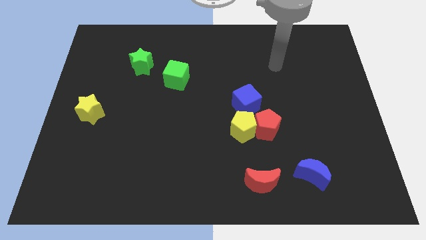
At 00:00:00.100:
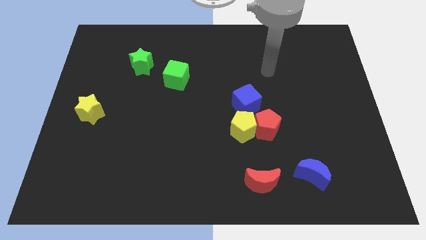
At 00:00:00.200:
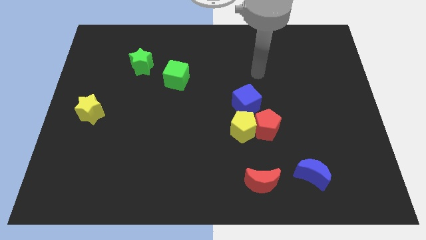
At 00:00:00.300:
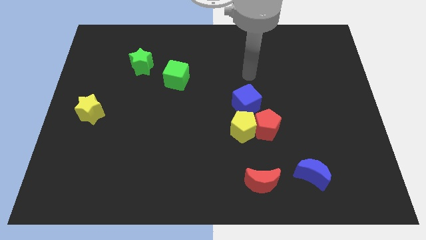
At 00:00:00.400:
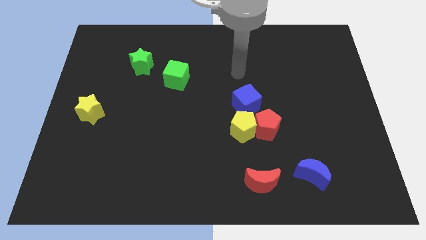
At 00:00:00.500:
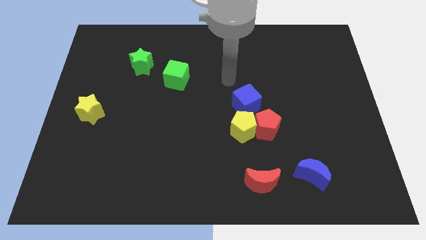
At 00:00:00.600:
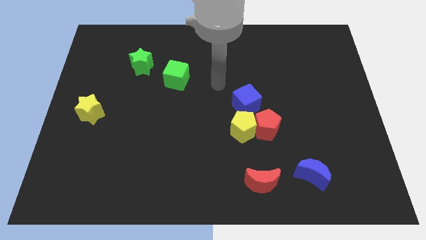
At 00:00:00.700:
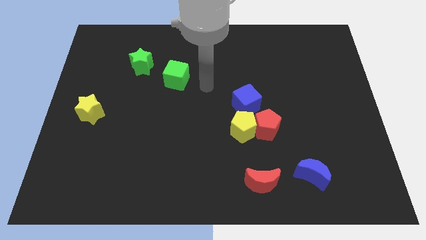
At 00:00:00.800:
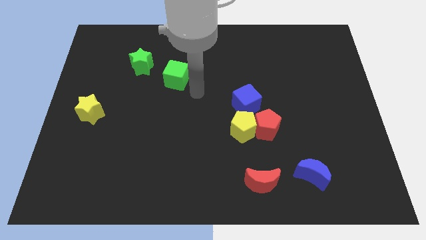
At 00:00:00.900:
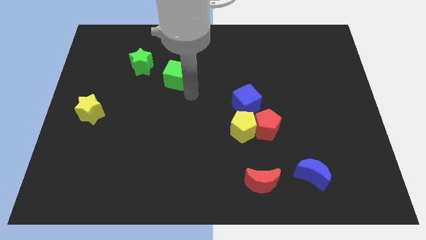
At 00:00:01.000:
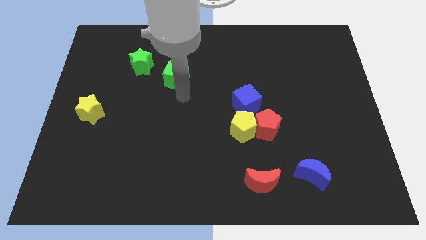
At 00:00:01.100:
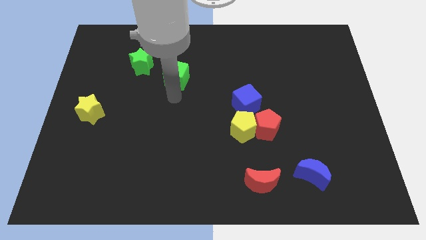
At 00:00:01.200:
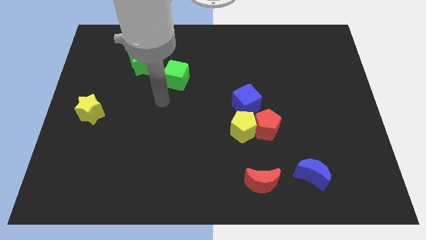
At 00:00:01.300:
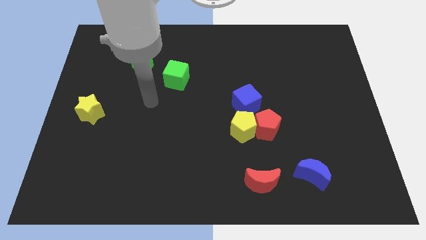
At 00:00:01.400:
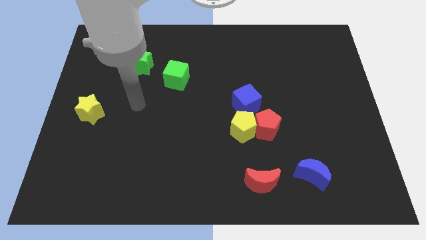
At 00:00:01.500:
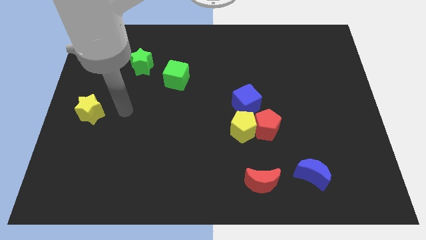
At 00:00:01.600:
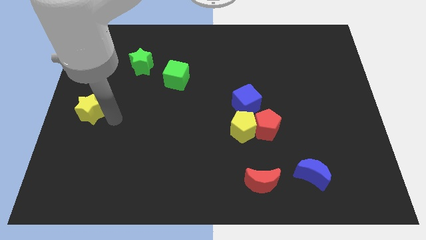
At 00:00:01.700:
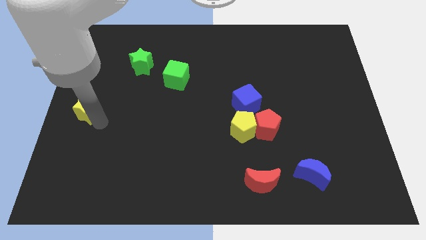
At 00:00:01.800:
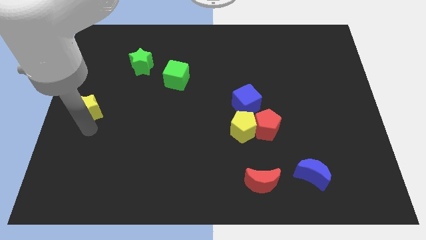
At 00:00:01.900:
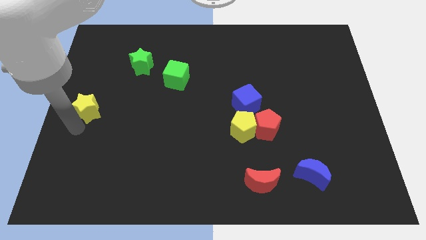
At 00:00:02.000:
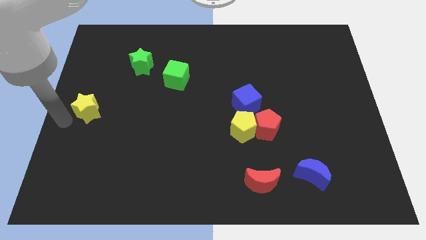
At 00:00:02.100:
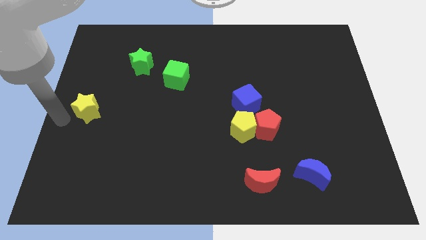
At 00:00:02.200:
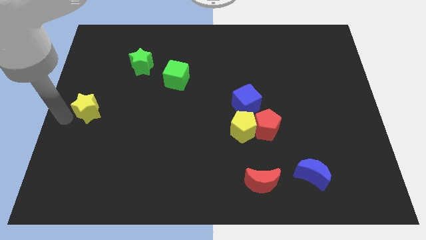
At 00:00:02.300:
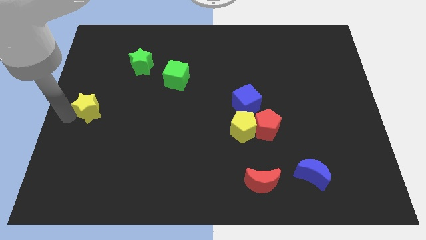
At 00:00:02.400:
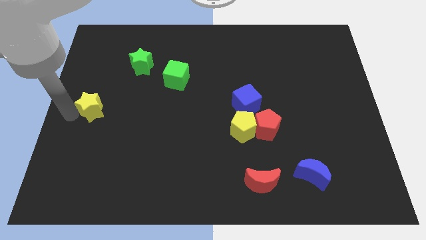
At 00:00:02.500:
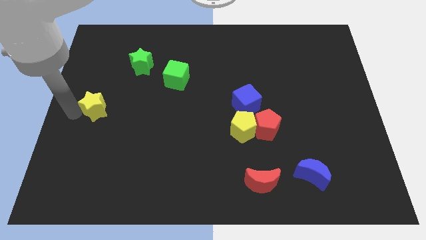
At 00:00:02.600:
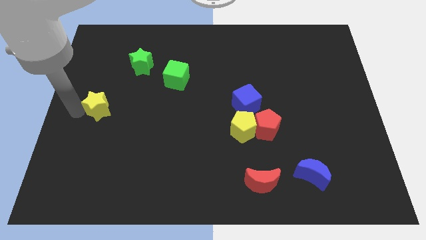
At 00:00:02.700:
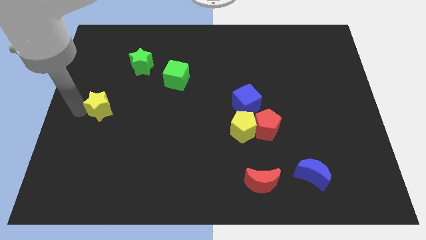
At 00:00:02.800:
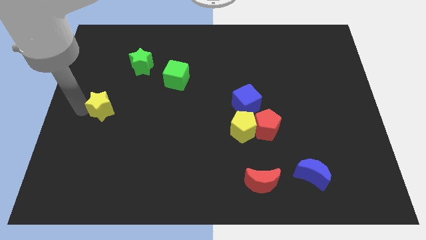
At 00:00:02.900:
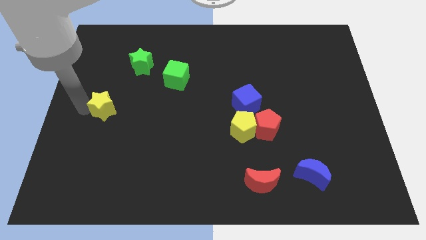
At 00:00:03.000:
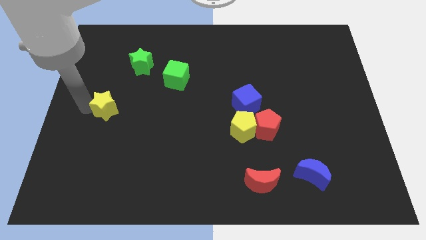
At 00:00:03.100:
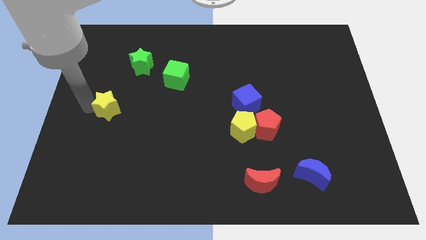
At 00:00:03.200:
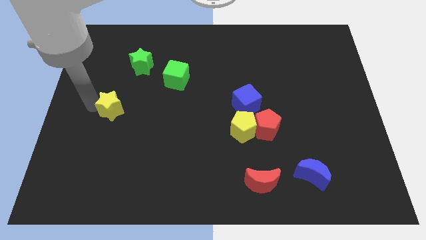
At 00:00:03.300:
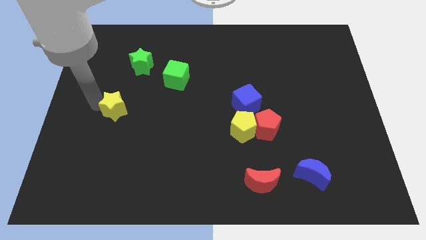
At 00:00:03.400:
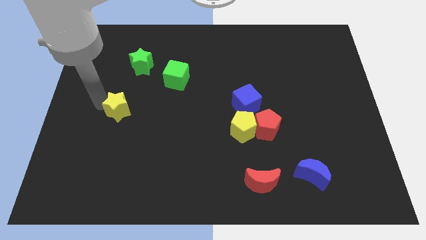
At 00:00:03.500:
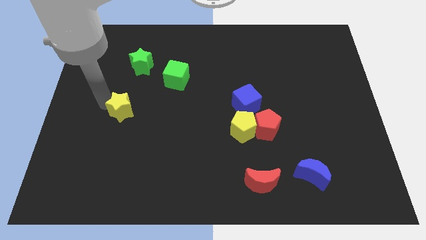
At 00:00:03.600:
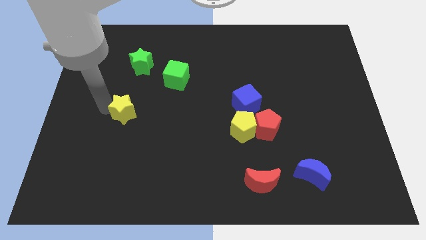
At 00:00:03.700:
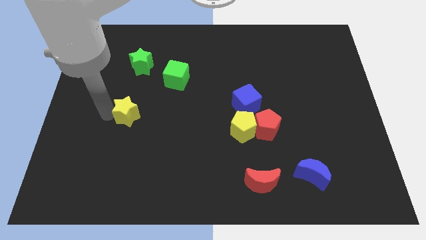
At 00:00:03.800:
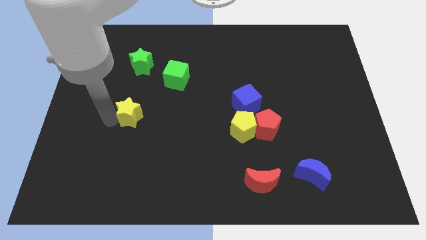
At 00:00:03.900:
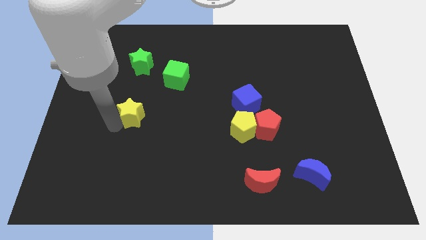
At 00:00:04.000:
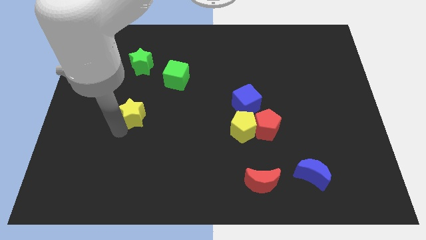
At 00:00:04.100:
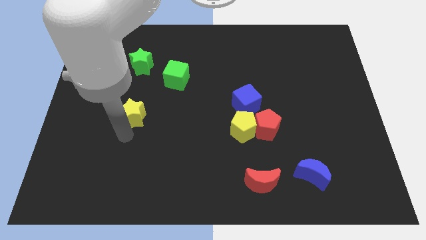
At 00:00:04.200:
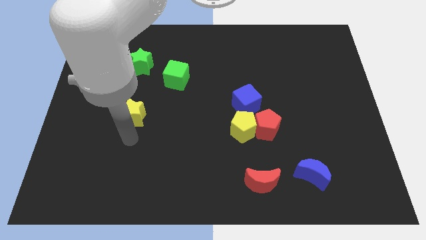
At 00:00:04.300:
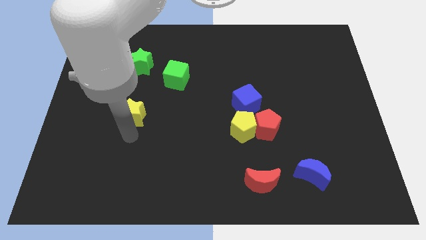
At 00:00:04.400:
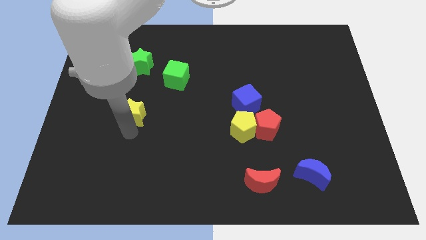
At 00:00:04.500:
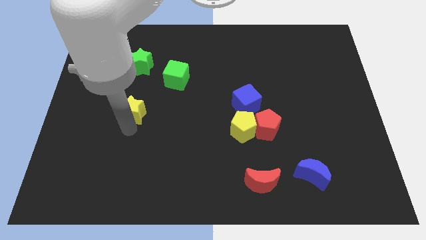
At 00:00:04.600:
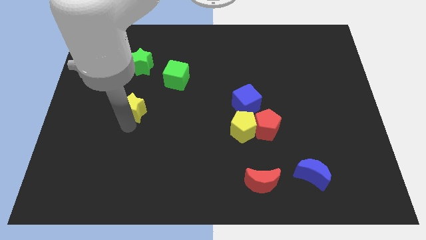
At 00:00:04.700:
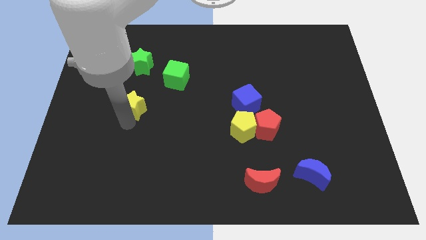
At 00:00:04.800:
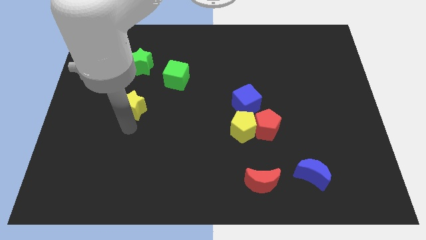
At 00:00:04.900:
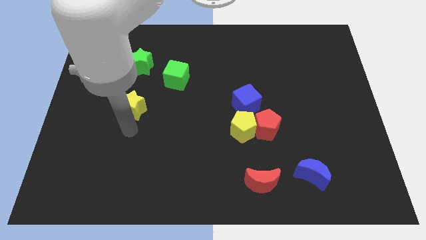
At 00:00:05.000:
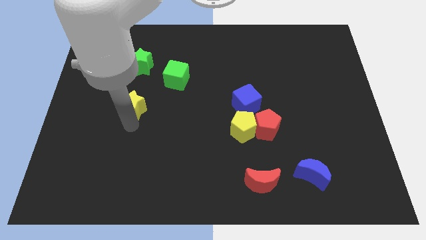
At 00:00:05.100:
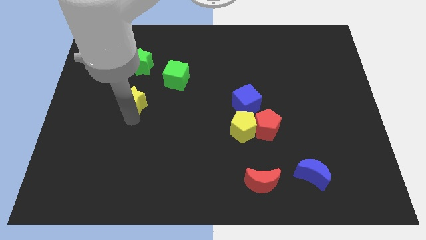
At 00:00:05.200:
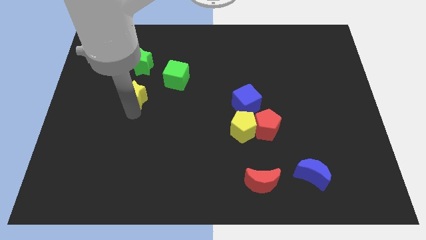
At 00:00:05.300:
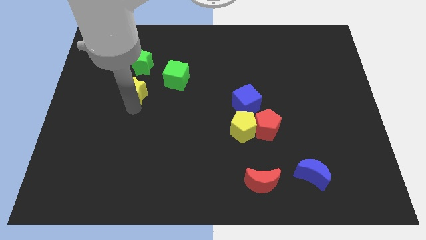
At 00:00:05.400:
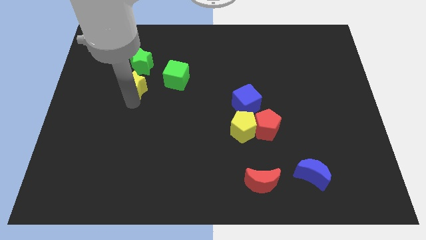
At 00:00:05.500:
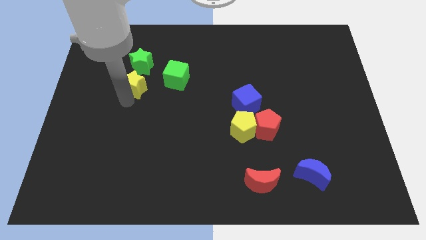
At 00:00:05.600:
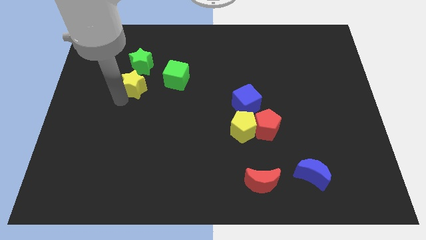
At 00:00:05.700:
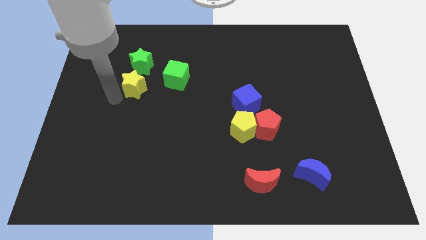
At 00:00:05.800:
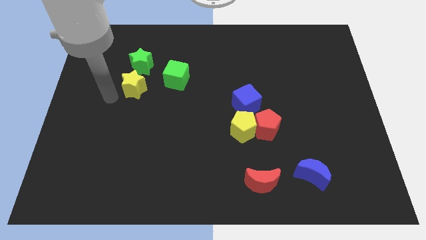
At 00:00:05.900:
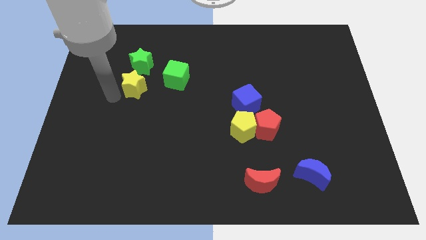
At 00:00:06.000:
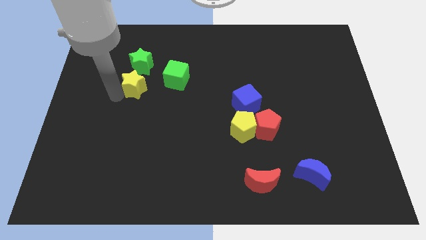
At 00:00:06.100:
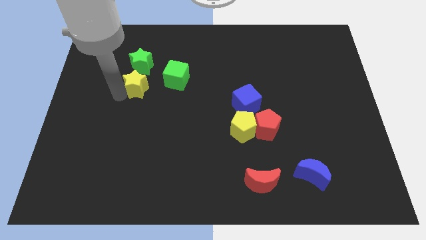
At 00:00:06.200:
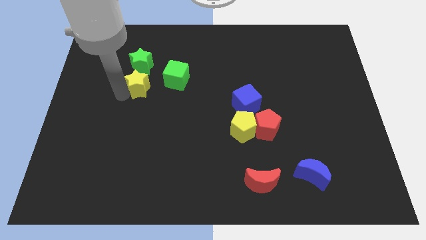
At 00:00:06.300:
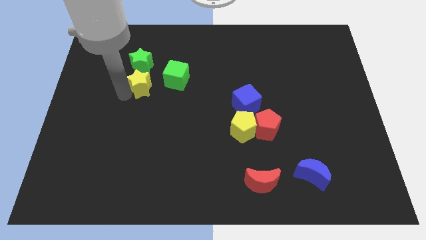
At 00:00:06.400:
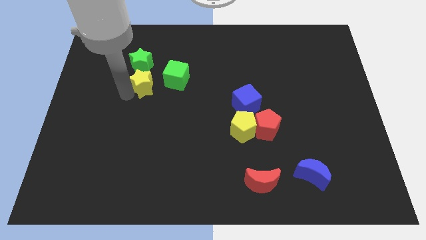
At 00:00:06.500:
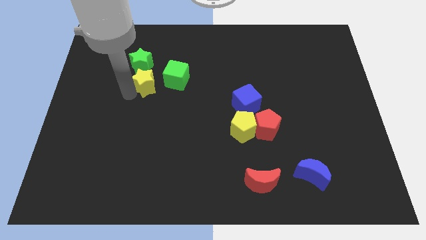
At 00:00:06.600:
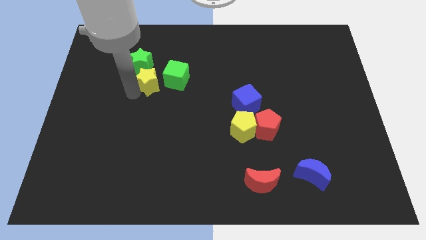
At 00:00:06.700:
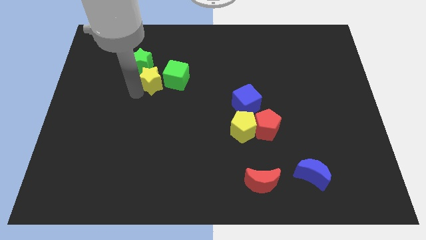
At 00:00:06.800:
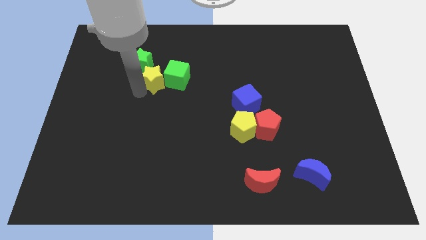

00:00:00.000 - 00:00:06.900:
push the yellow star to the top left side of the green cube
